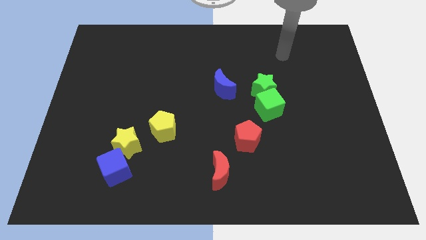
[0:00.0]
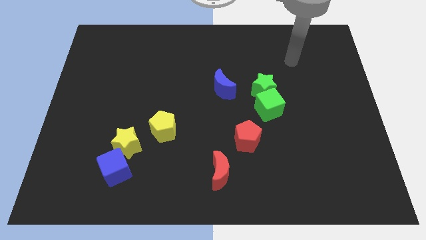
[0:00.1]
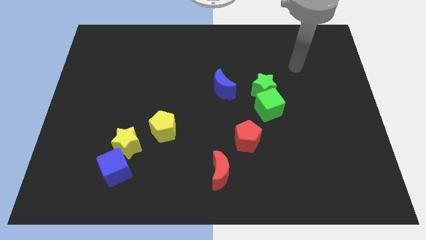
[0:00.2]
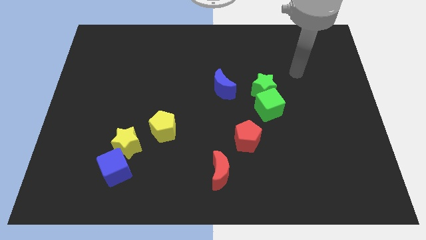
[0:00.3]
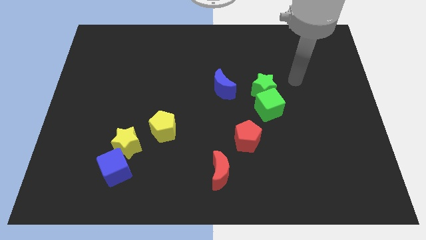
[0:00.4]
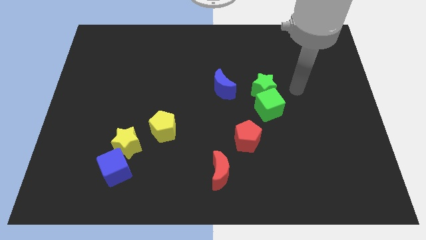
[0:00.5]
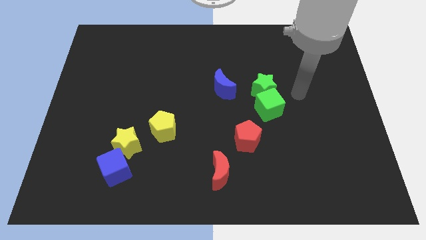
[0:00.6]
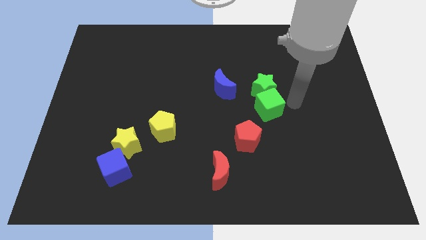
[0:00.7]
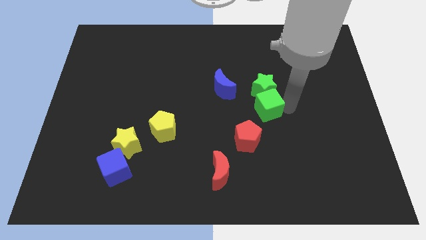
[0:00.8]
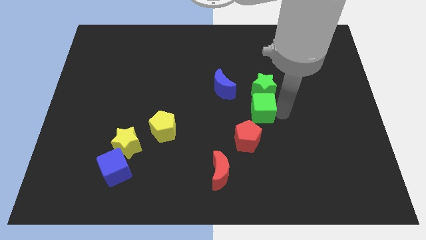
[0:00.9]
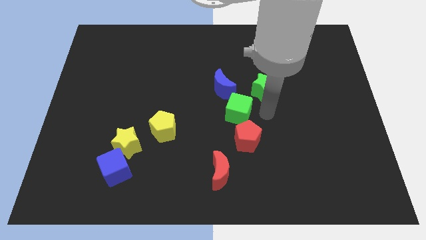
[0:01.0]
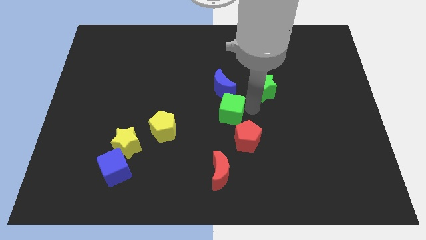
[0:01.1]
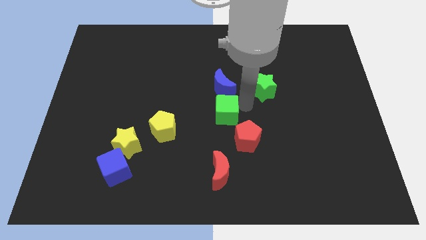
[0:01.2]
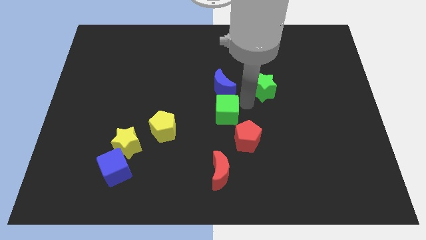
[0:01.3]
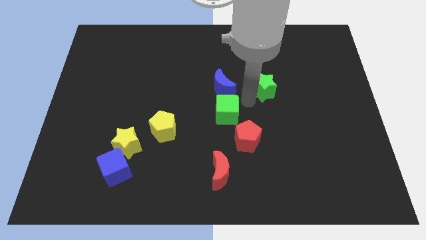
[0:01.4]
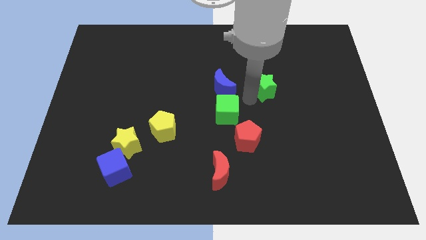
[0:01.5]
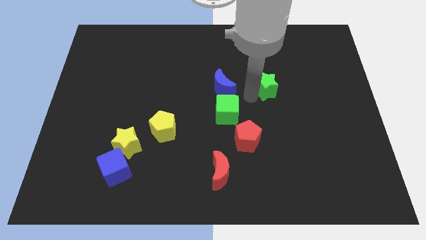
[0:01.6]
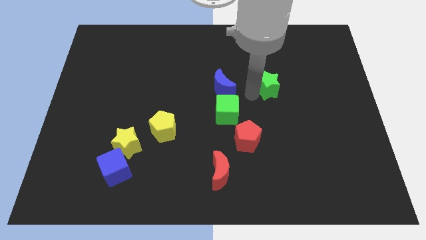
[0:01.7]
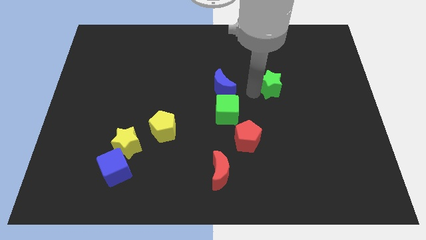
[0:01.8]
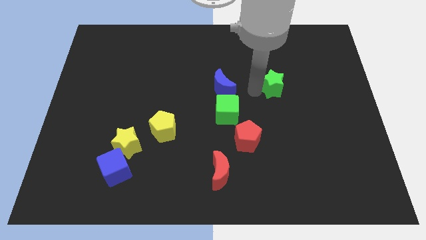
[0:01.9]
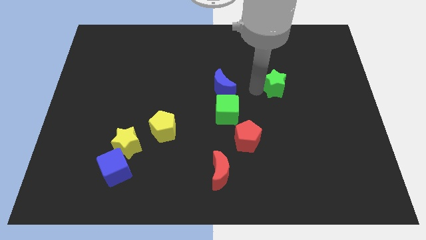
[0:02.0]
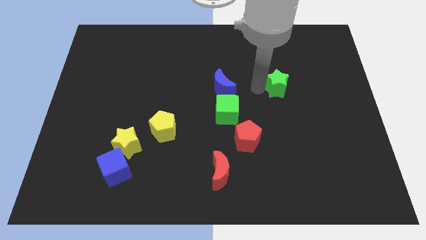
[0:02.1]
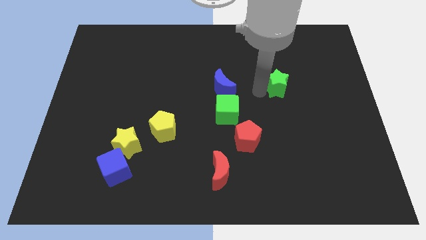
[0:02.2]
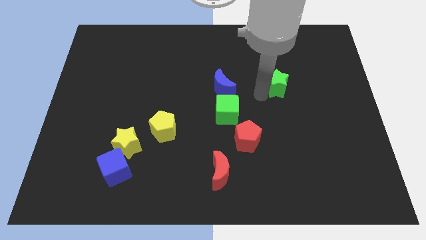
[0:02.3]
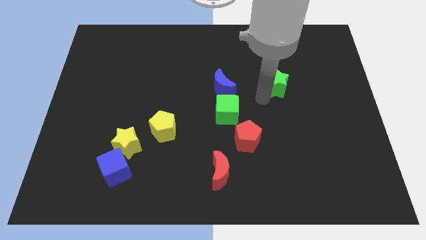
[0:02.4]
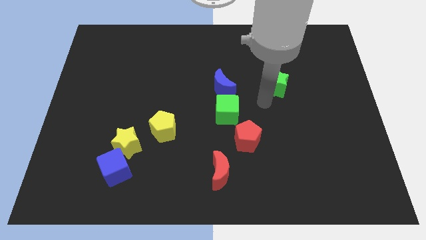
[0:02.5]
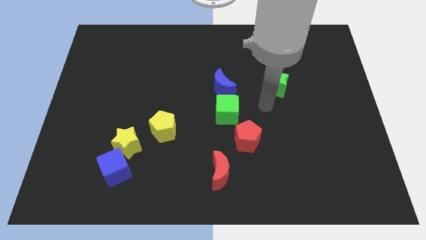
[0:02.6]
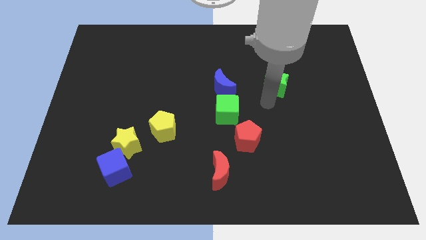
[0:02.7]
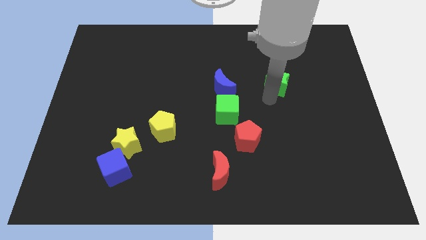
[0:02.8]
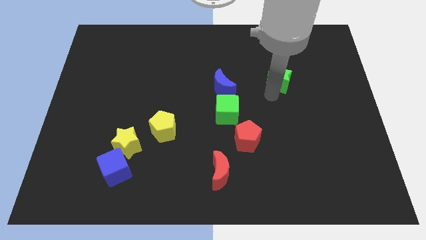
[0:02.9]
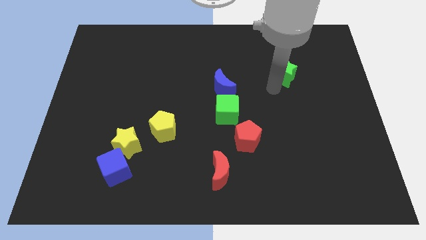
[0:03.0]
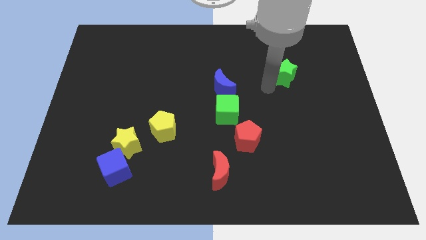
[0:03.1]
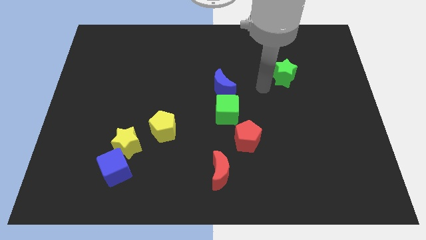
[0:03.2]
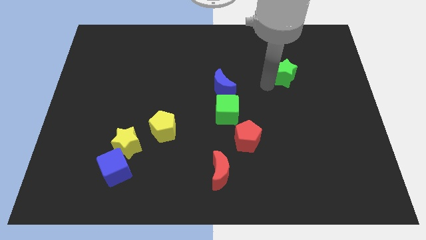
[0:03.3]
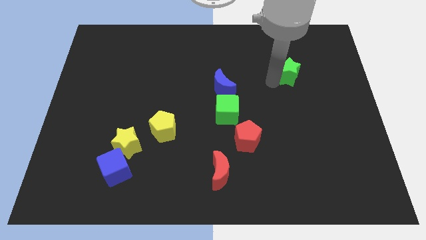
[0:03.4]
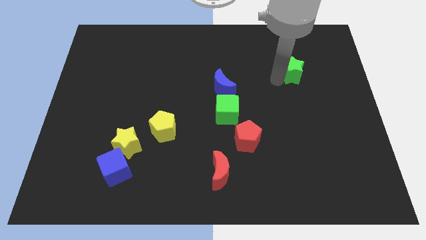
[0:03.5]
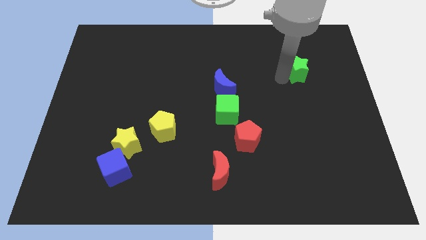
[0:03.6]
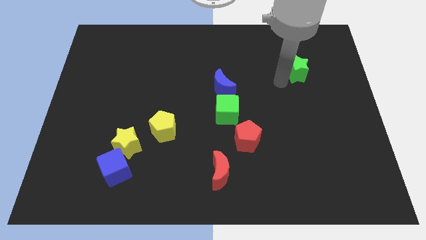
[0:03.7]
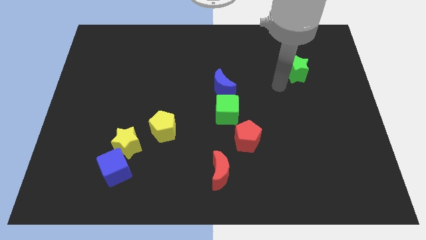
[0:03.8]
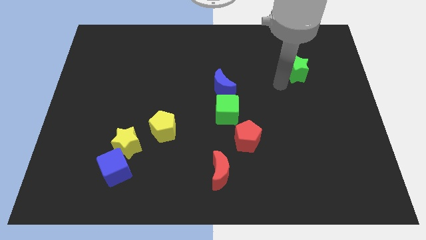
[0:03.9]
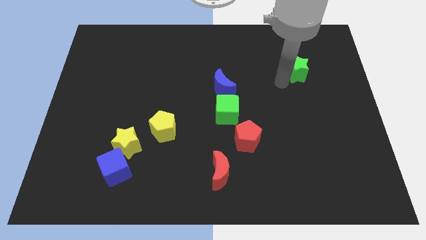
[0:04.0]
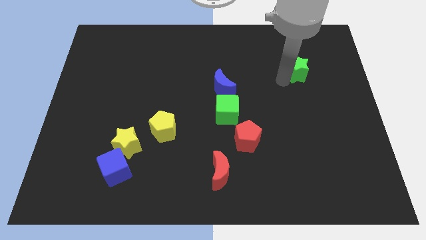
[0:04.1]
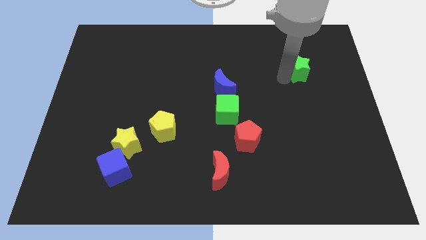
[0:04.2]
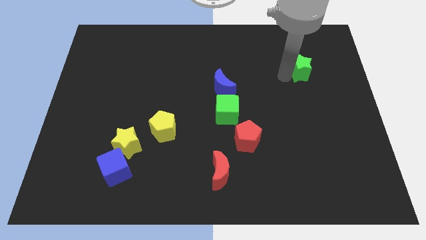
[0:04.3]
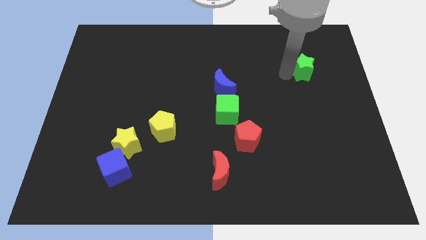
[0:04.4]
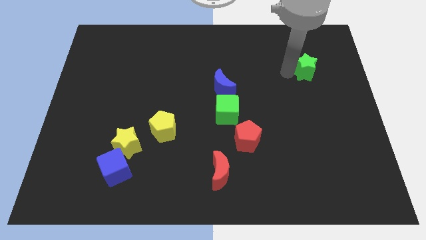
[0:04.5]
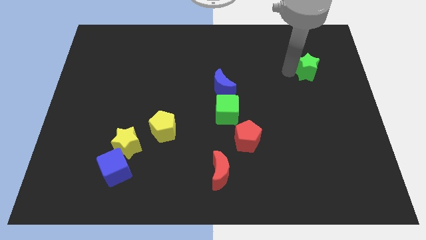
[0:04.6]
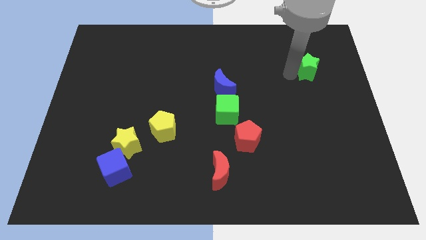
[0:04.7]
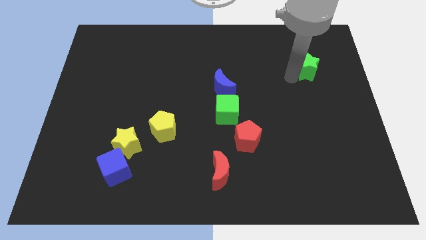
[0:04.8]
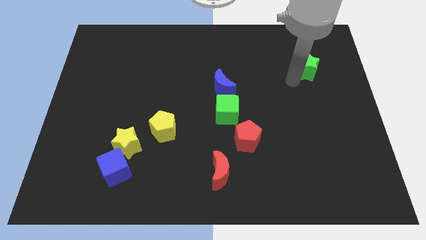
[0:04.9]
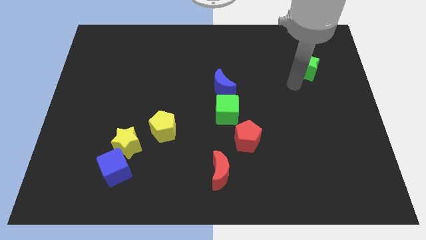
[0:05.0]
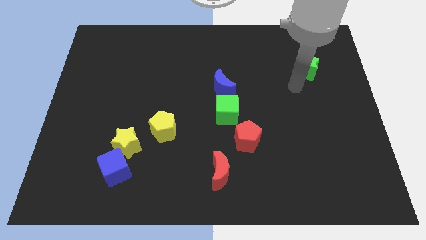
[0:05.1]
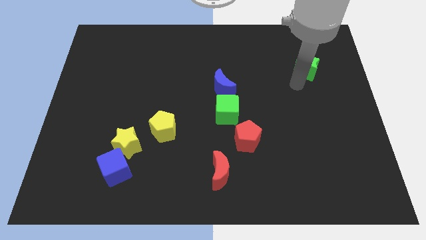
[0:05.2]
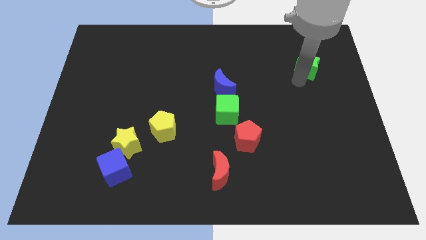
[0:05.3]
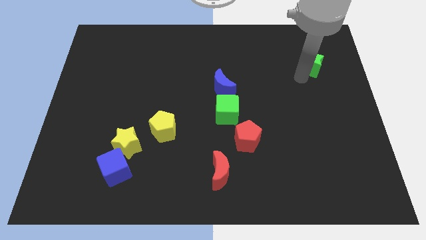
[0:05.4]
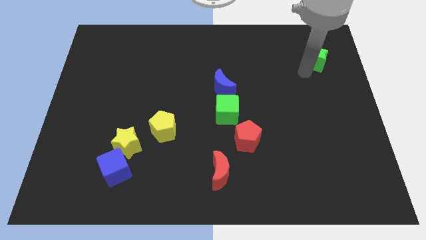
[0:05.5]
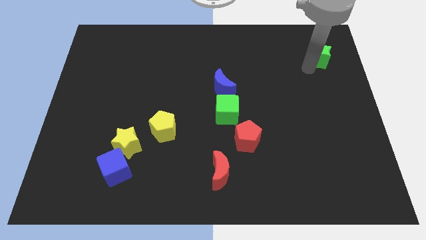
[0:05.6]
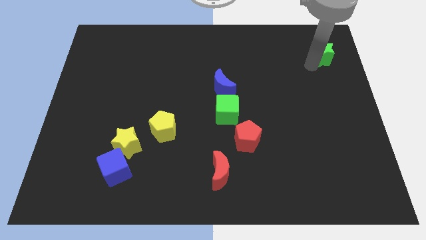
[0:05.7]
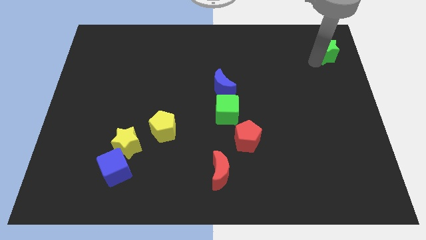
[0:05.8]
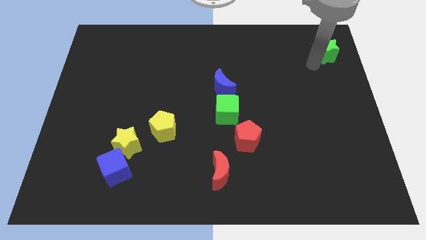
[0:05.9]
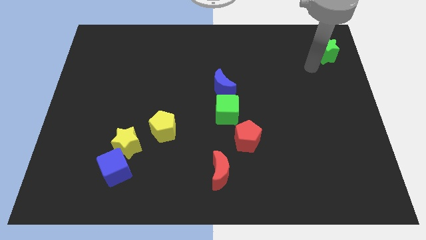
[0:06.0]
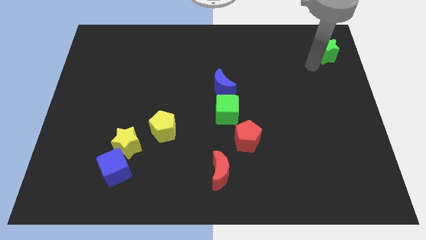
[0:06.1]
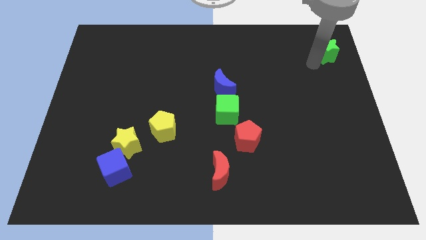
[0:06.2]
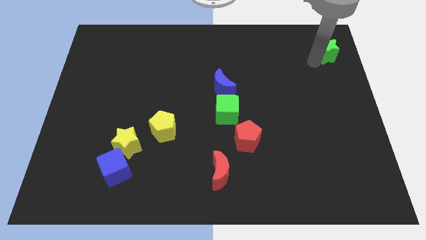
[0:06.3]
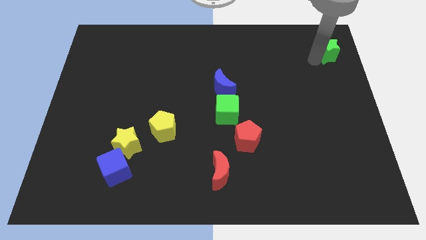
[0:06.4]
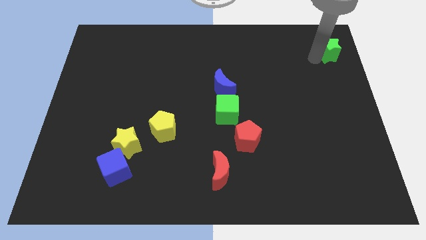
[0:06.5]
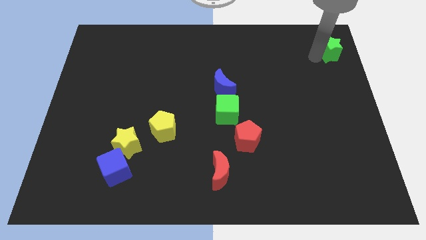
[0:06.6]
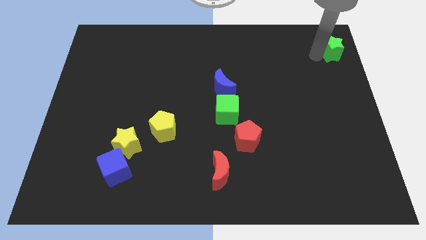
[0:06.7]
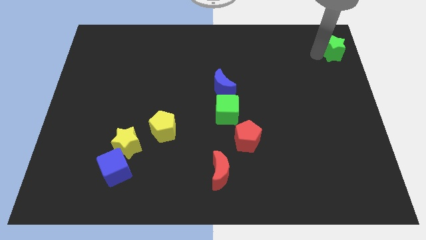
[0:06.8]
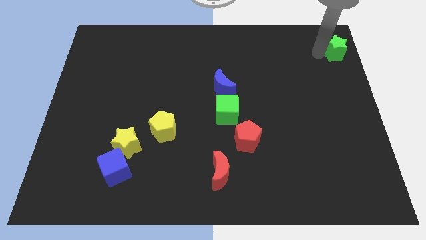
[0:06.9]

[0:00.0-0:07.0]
slide the green star to the top right corner
